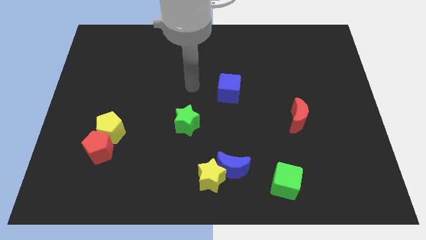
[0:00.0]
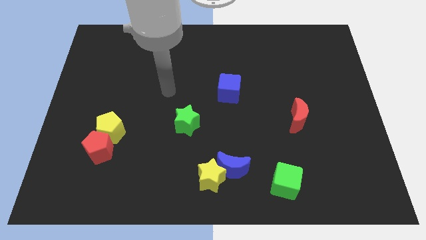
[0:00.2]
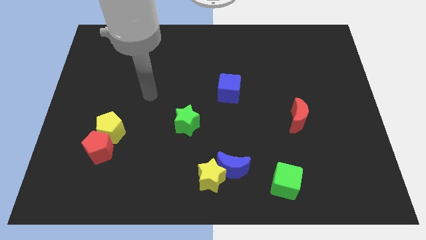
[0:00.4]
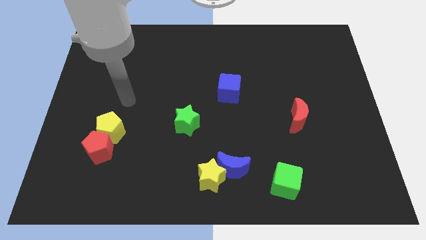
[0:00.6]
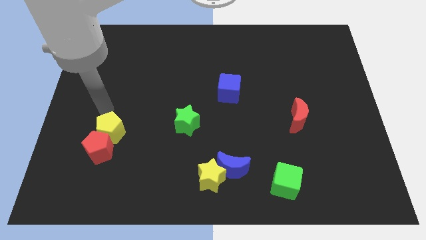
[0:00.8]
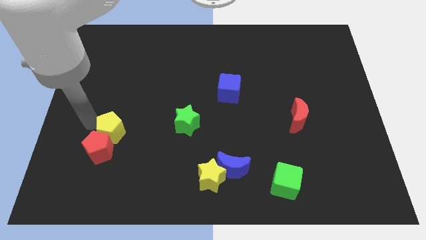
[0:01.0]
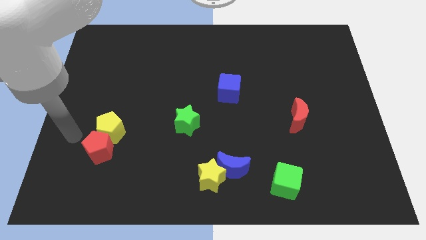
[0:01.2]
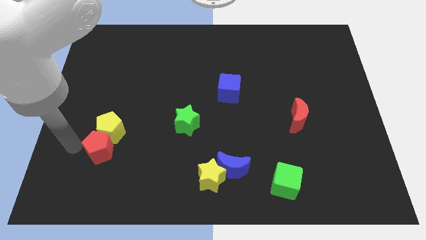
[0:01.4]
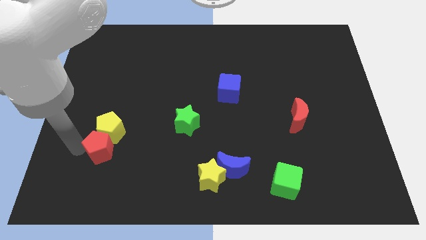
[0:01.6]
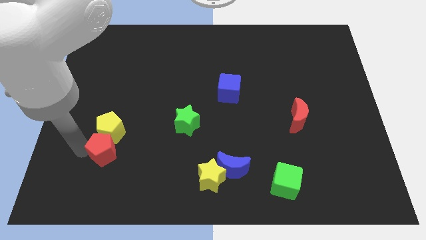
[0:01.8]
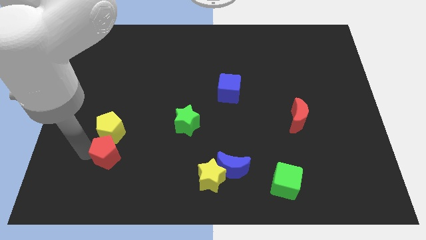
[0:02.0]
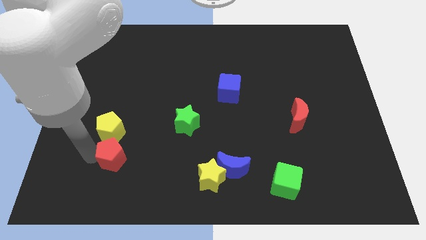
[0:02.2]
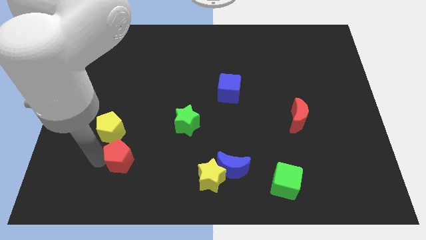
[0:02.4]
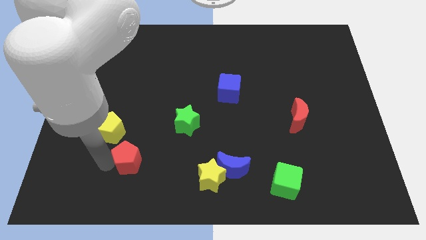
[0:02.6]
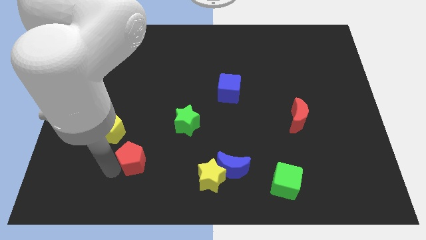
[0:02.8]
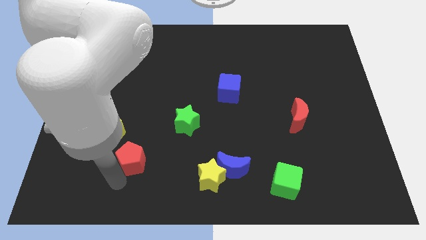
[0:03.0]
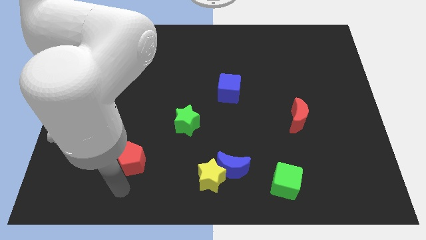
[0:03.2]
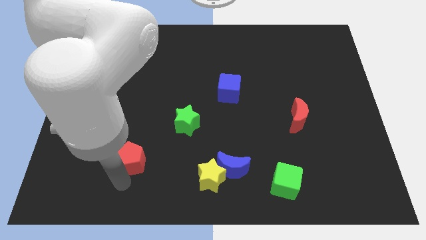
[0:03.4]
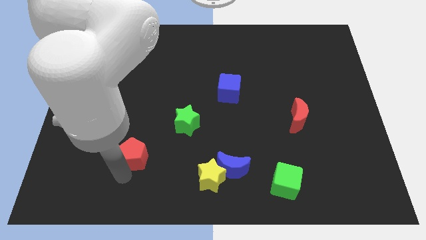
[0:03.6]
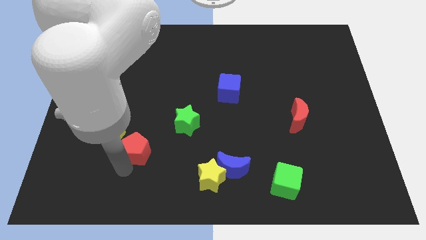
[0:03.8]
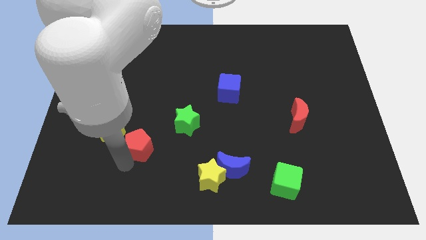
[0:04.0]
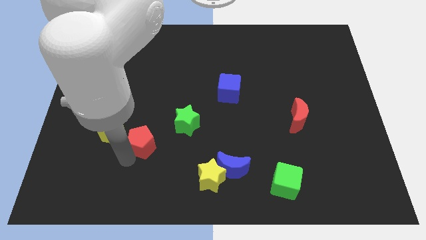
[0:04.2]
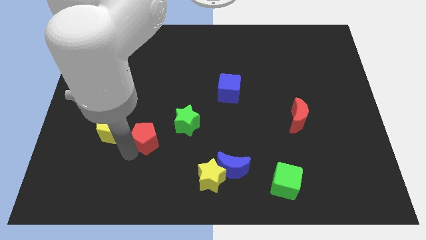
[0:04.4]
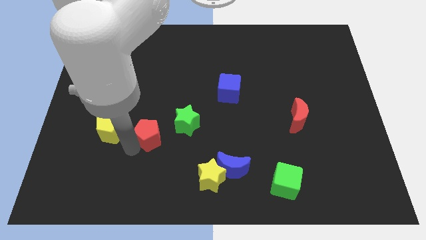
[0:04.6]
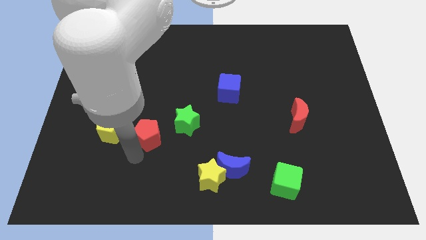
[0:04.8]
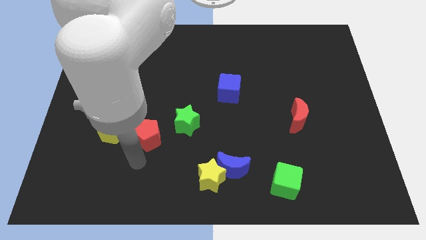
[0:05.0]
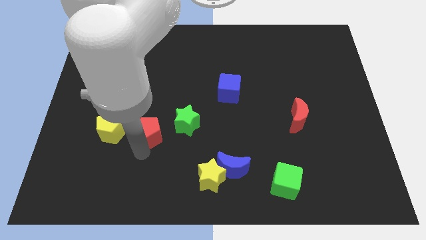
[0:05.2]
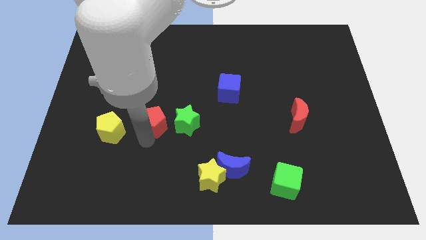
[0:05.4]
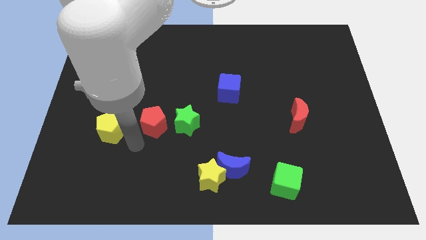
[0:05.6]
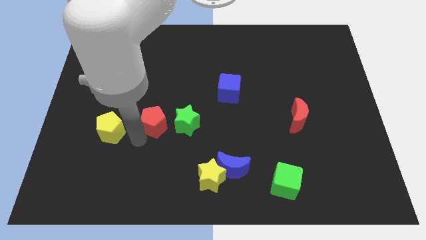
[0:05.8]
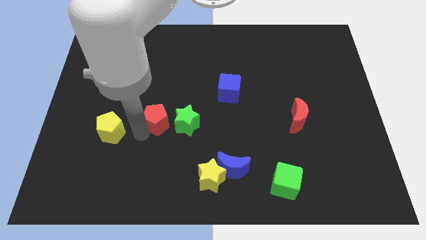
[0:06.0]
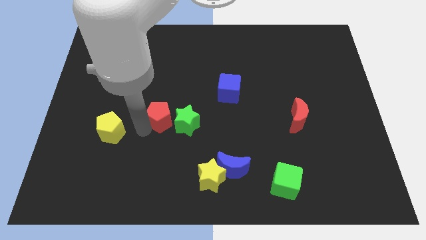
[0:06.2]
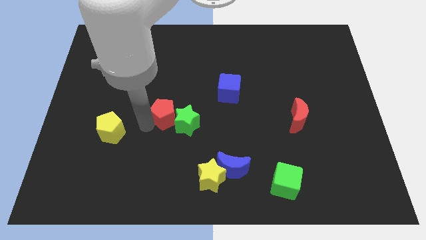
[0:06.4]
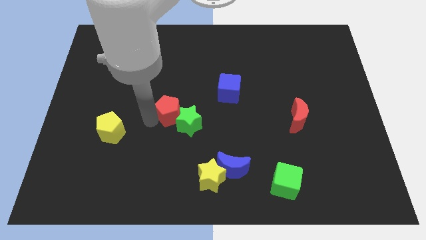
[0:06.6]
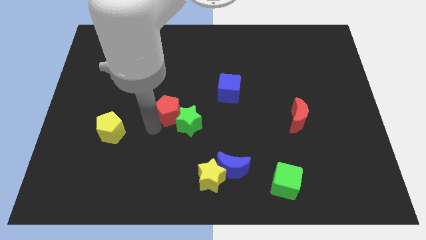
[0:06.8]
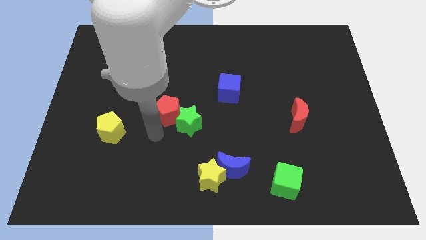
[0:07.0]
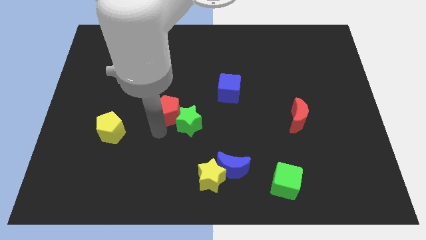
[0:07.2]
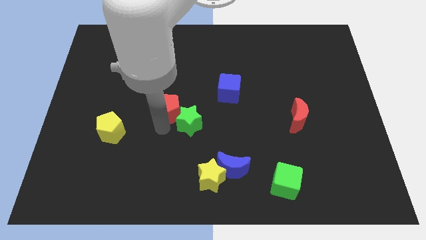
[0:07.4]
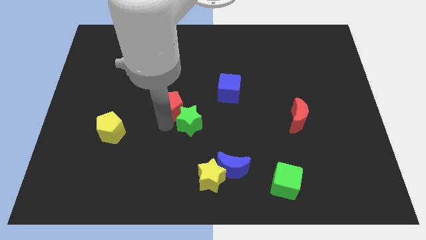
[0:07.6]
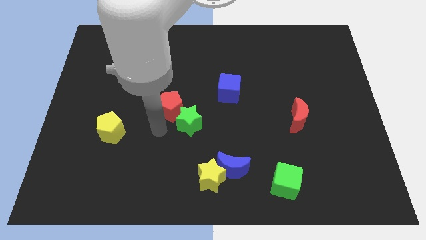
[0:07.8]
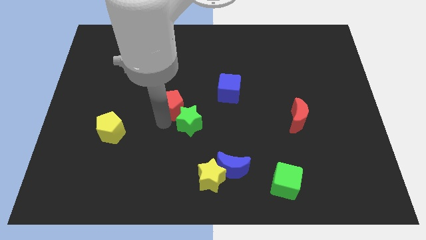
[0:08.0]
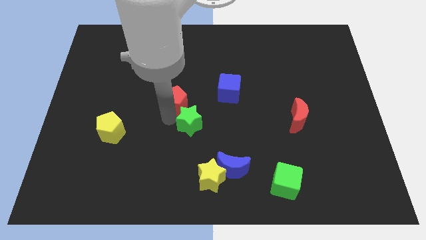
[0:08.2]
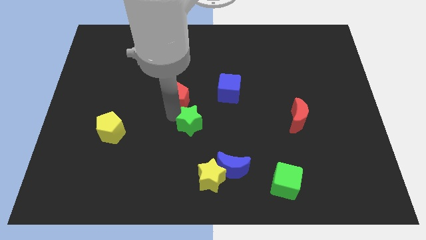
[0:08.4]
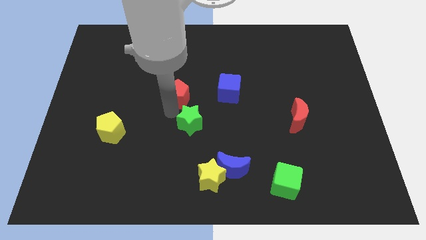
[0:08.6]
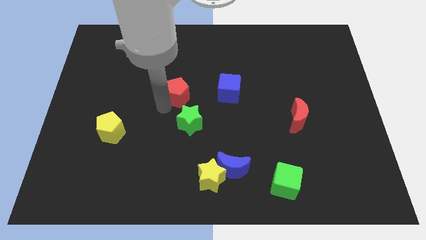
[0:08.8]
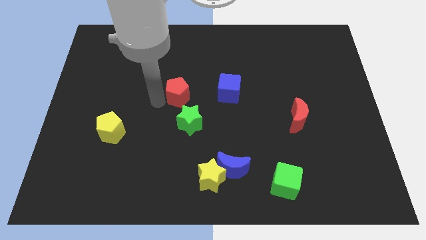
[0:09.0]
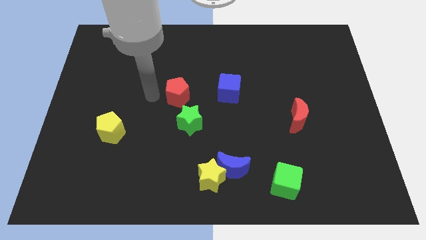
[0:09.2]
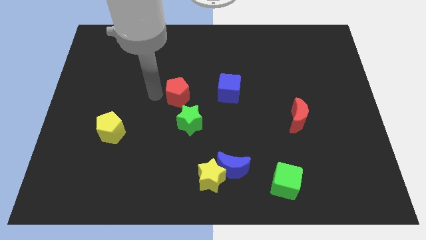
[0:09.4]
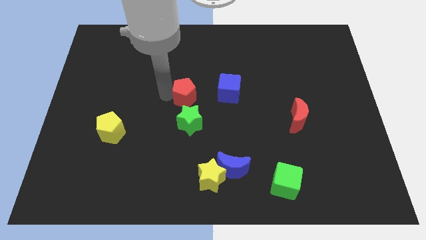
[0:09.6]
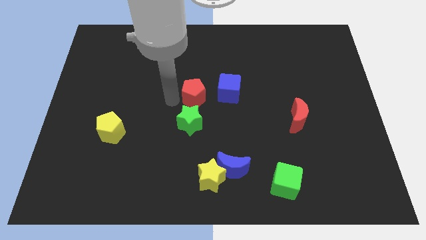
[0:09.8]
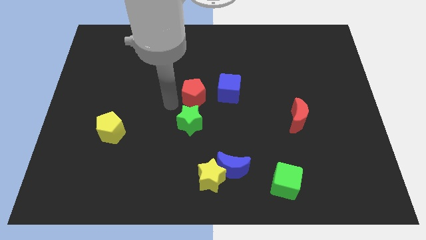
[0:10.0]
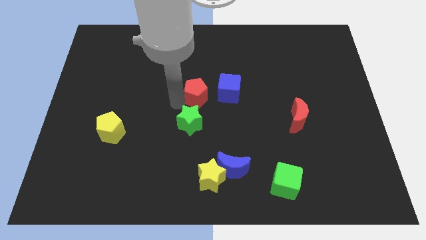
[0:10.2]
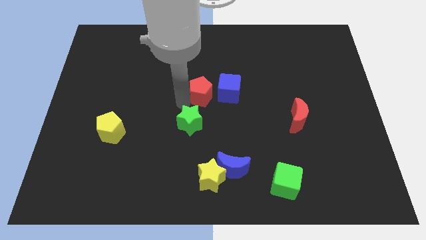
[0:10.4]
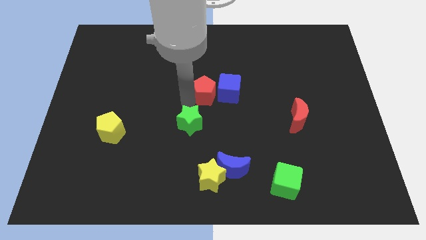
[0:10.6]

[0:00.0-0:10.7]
push the red pentagon close to the blue cube

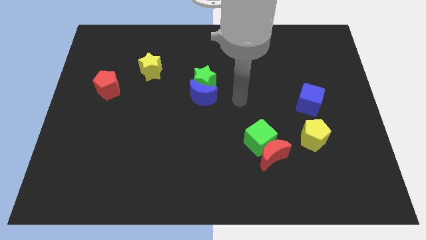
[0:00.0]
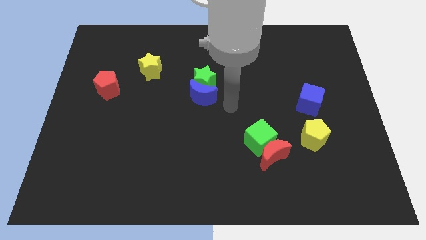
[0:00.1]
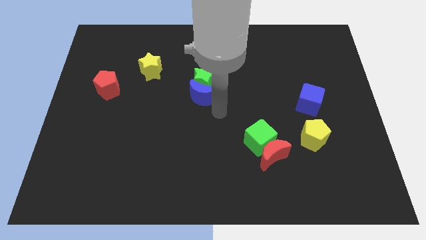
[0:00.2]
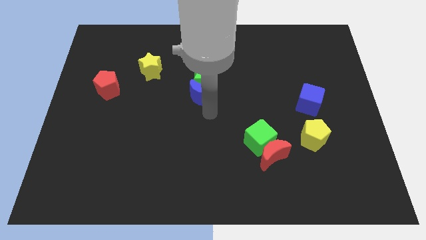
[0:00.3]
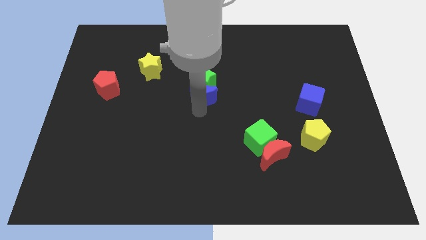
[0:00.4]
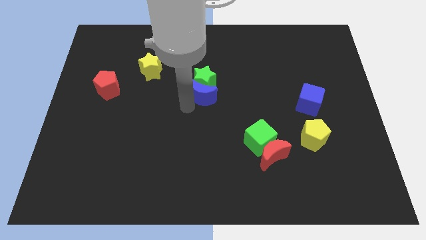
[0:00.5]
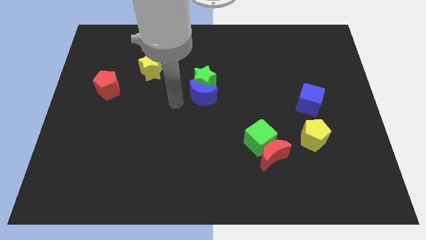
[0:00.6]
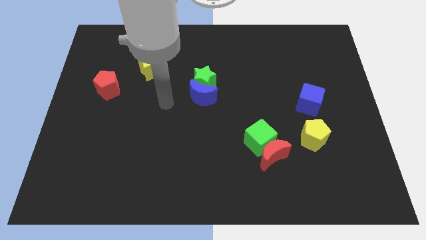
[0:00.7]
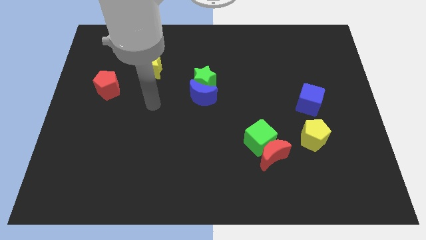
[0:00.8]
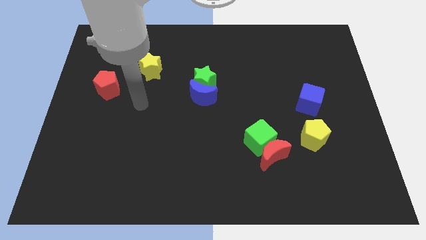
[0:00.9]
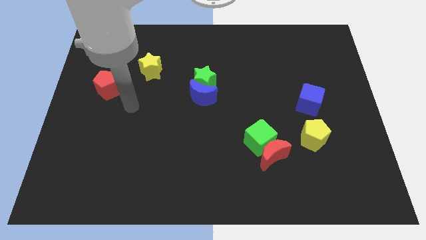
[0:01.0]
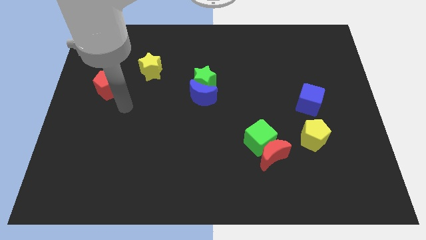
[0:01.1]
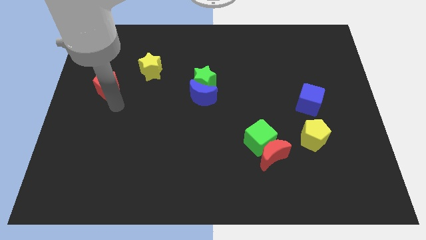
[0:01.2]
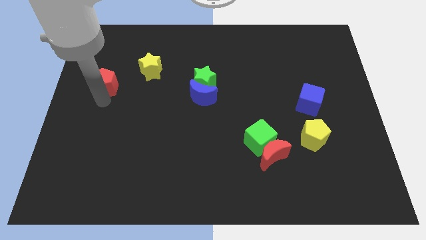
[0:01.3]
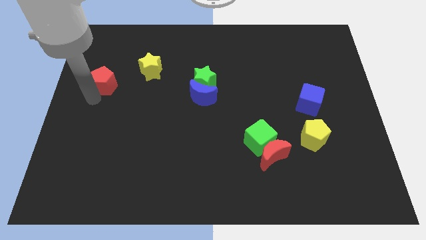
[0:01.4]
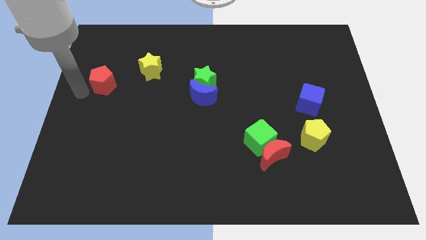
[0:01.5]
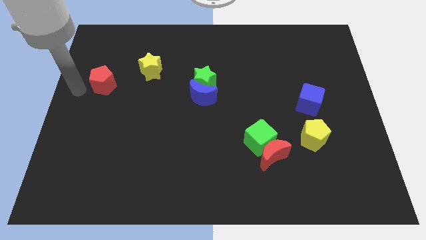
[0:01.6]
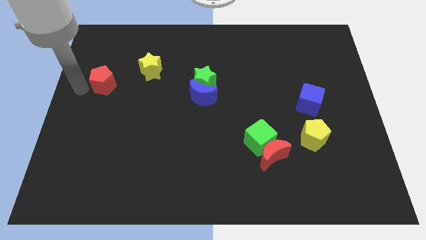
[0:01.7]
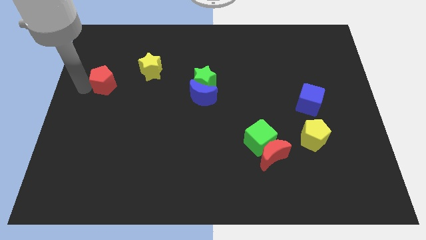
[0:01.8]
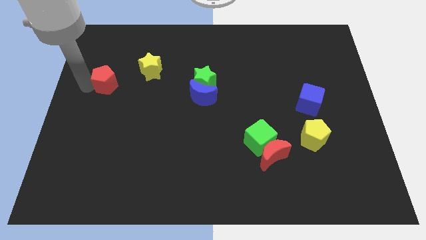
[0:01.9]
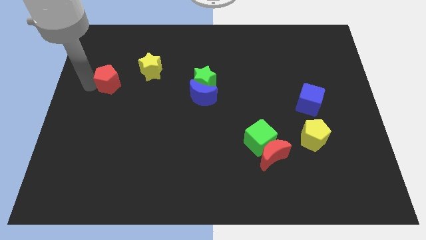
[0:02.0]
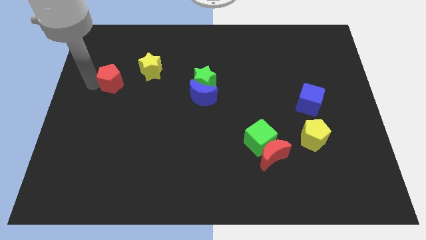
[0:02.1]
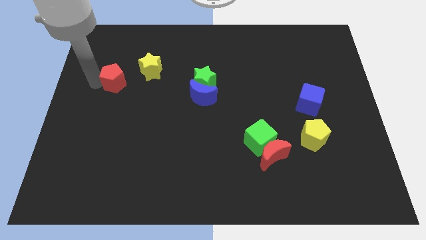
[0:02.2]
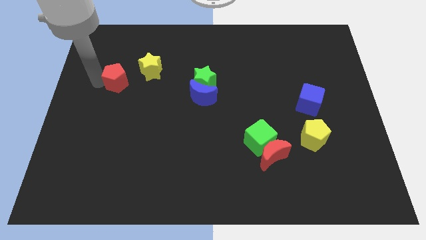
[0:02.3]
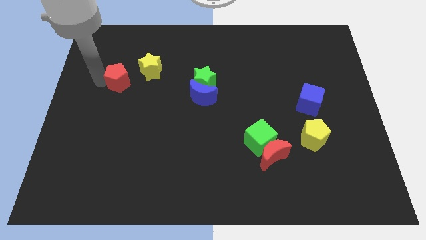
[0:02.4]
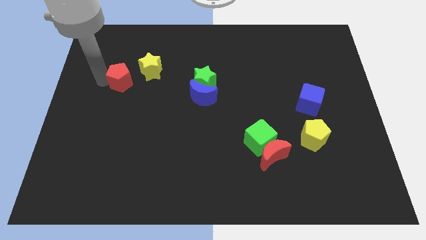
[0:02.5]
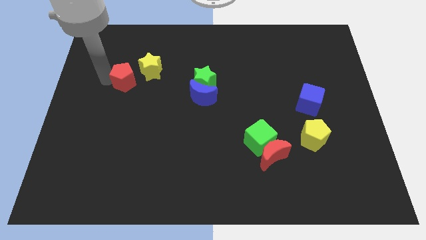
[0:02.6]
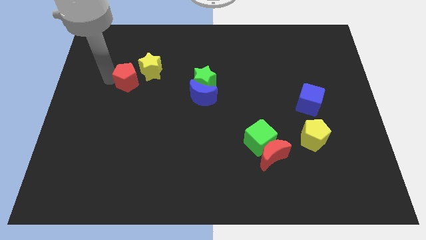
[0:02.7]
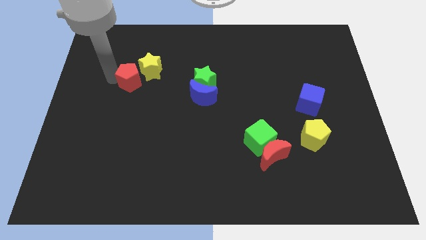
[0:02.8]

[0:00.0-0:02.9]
put the red pentagon to the yellow star
